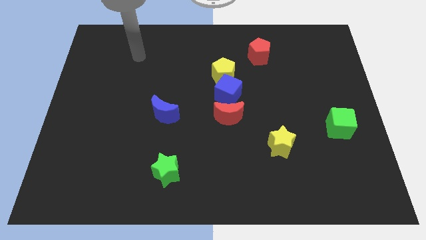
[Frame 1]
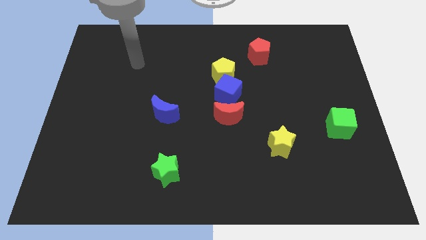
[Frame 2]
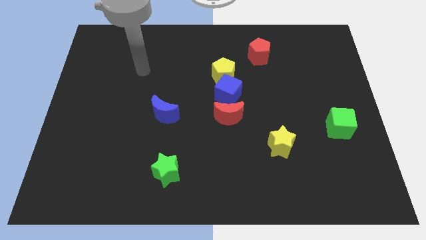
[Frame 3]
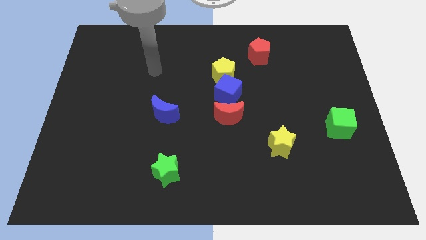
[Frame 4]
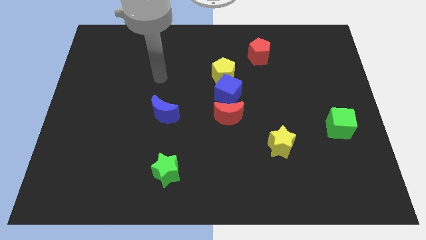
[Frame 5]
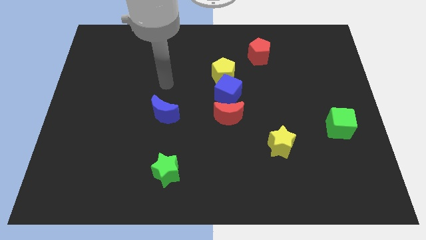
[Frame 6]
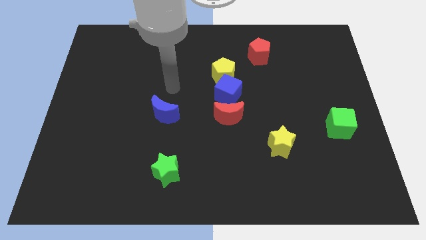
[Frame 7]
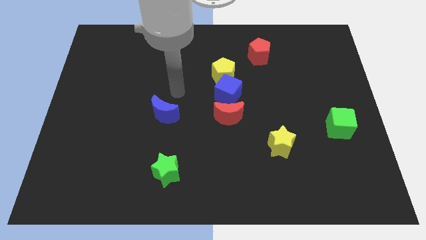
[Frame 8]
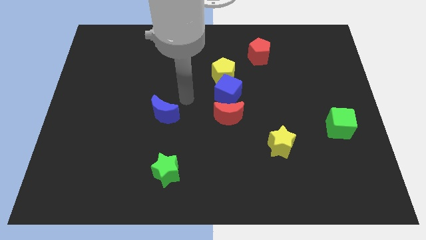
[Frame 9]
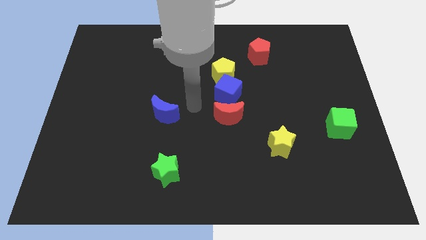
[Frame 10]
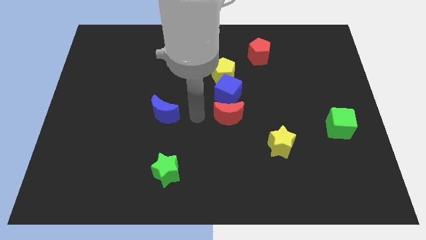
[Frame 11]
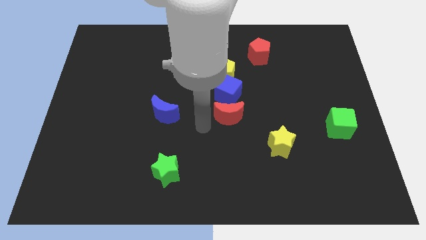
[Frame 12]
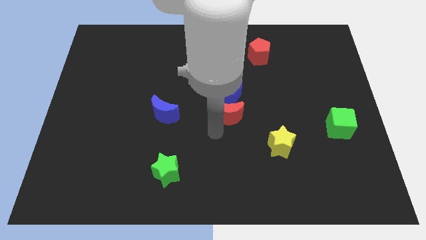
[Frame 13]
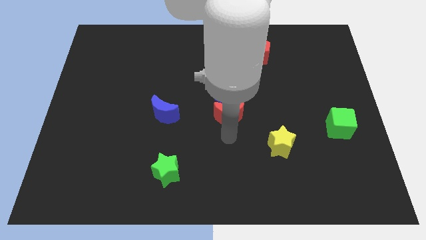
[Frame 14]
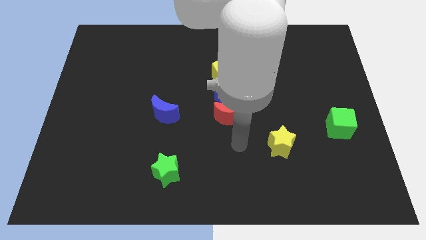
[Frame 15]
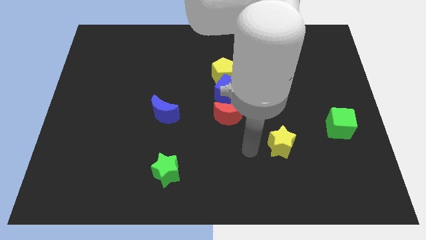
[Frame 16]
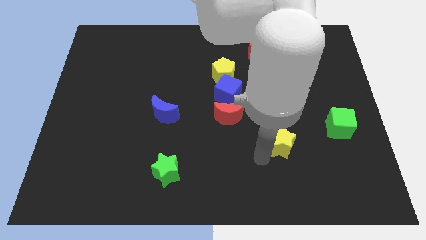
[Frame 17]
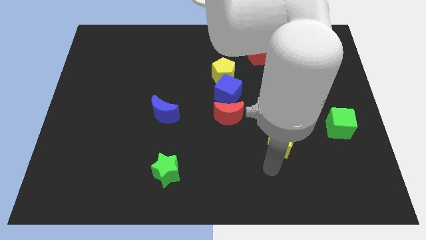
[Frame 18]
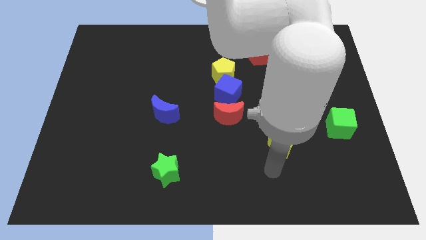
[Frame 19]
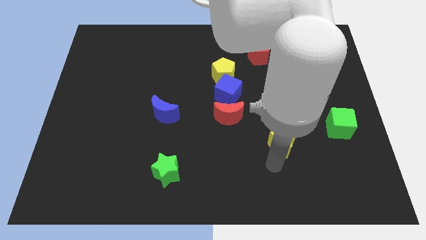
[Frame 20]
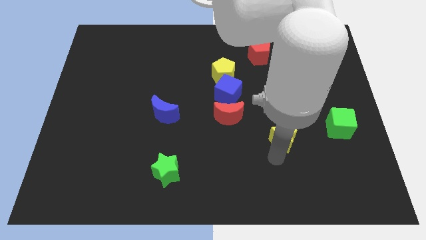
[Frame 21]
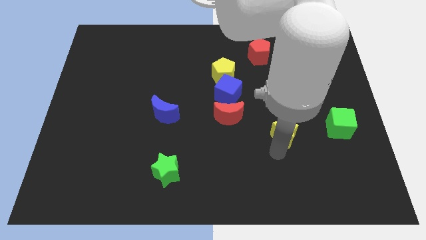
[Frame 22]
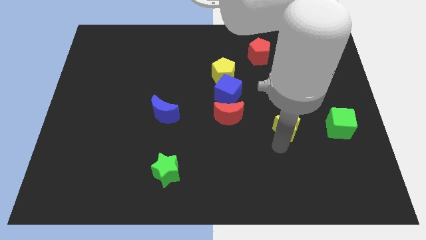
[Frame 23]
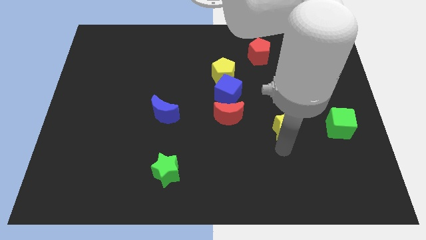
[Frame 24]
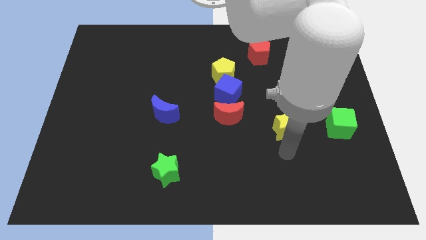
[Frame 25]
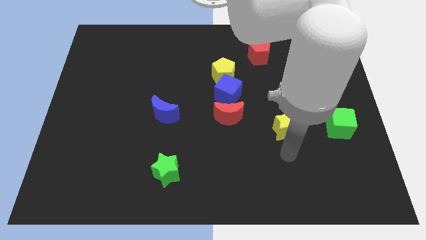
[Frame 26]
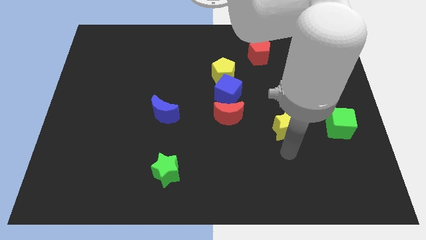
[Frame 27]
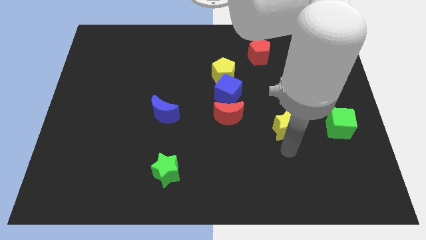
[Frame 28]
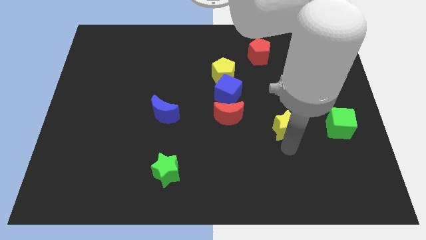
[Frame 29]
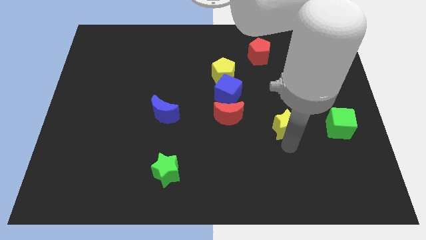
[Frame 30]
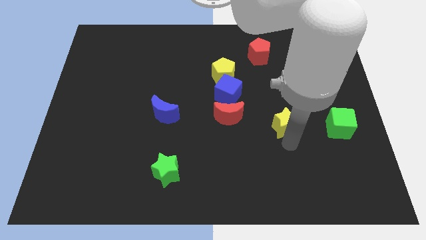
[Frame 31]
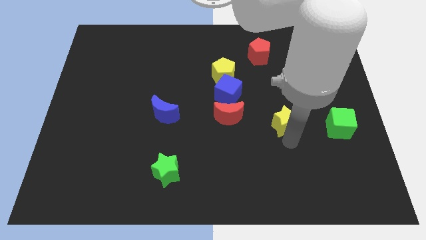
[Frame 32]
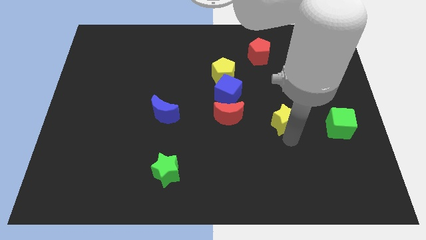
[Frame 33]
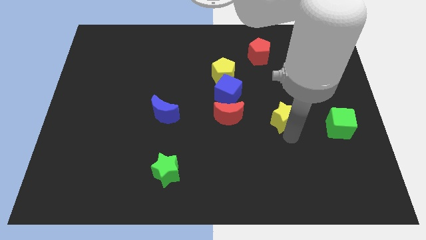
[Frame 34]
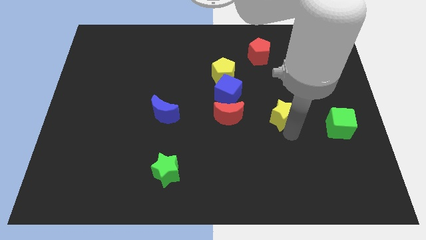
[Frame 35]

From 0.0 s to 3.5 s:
push the yellow star slightly up

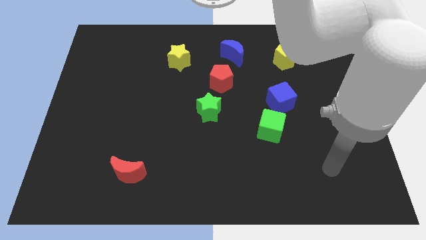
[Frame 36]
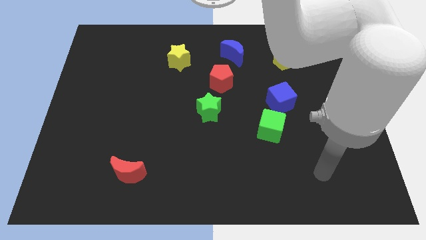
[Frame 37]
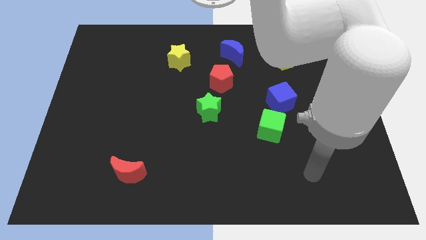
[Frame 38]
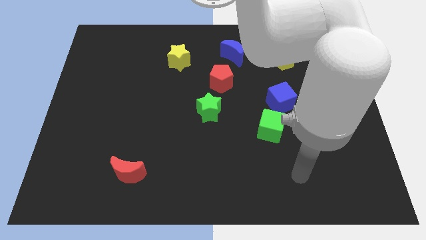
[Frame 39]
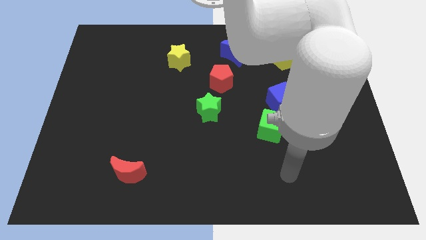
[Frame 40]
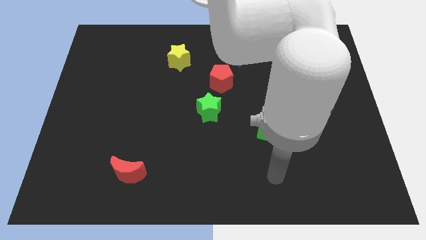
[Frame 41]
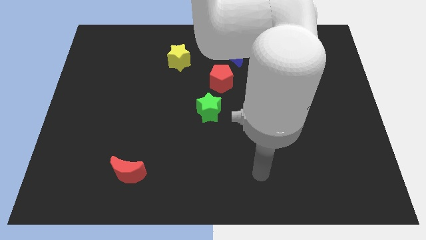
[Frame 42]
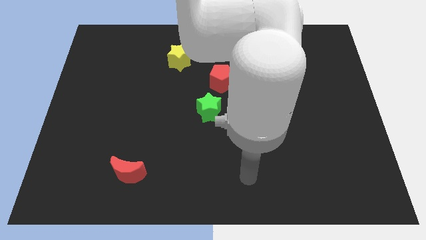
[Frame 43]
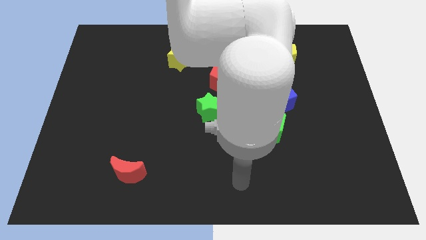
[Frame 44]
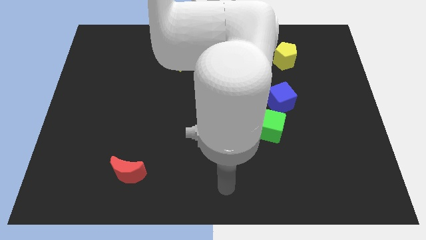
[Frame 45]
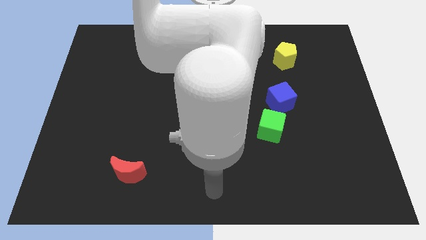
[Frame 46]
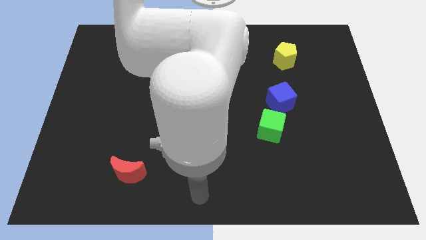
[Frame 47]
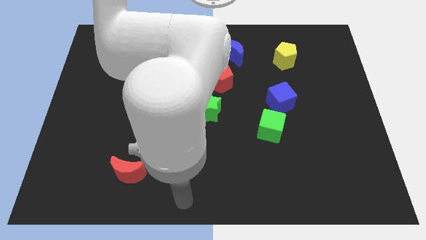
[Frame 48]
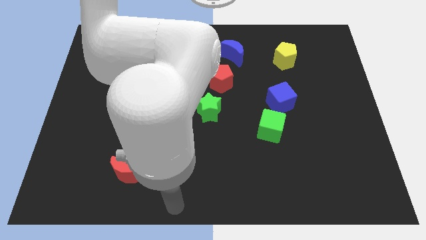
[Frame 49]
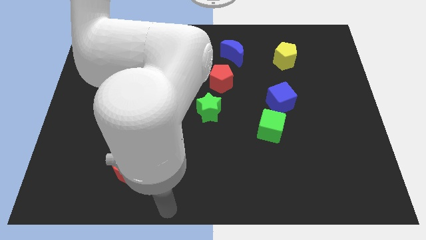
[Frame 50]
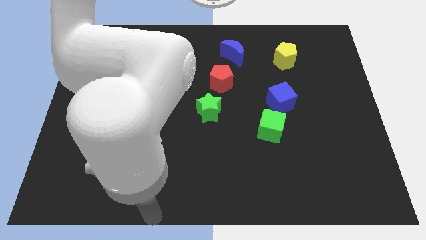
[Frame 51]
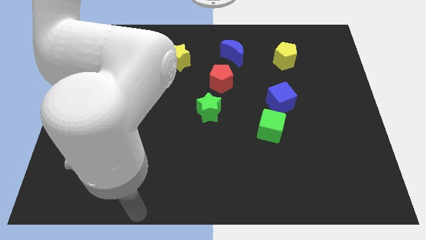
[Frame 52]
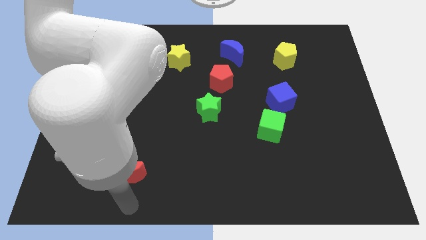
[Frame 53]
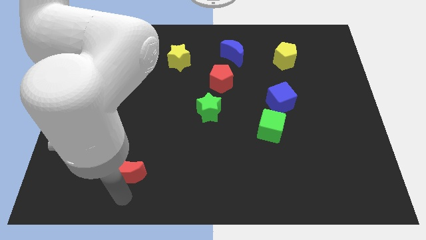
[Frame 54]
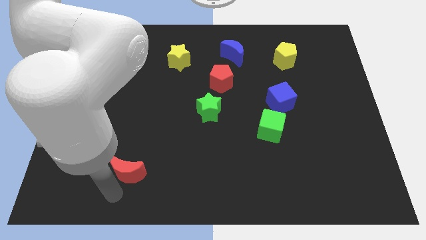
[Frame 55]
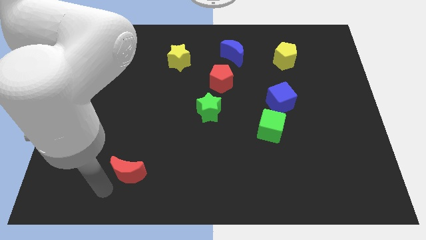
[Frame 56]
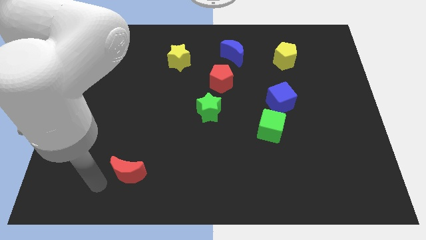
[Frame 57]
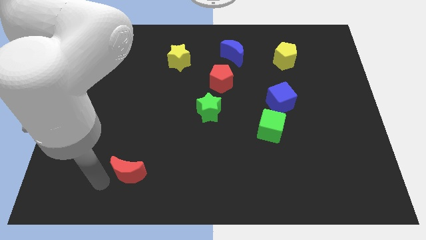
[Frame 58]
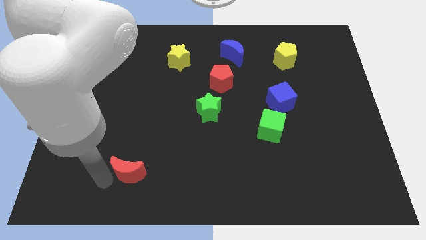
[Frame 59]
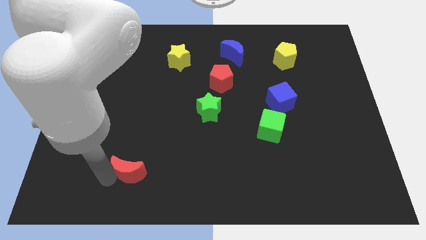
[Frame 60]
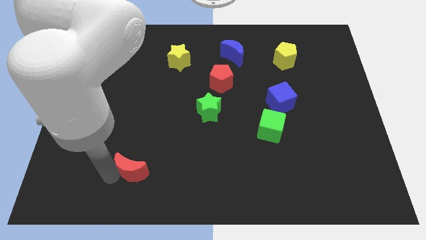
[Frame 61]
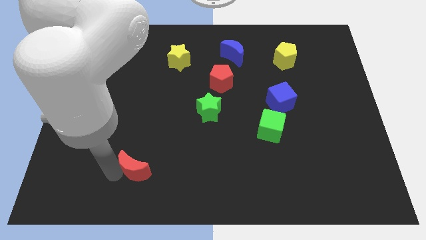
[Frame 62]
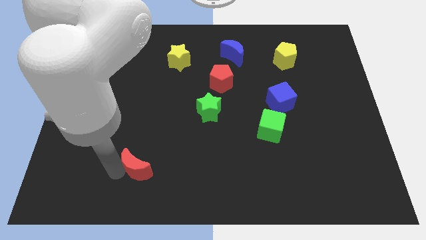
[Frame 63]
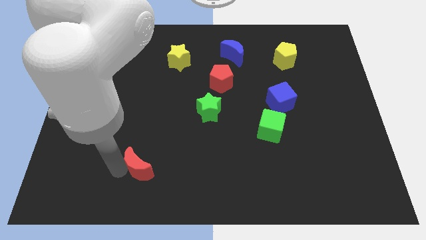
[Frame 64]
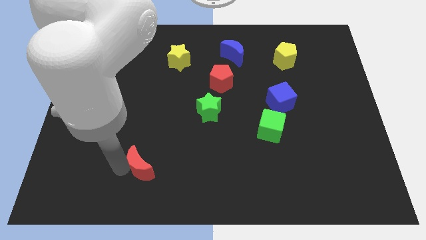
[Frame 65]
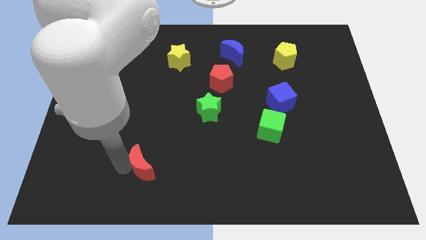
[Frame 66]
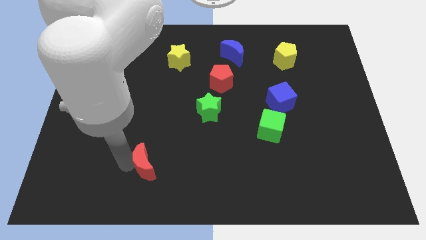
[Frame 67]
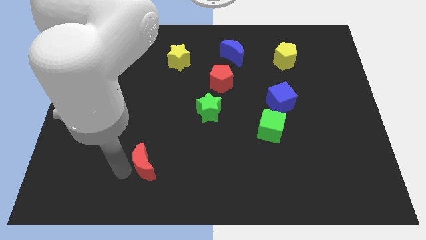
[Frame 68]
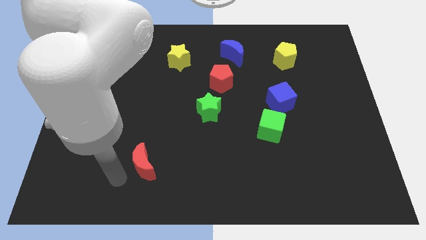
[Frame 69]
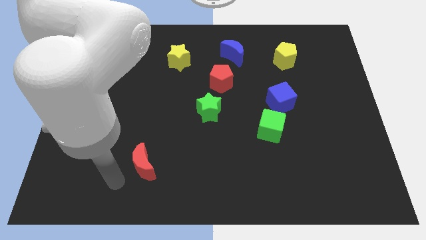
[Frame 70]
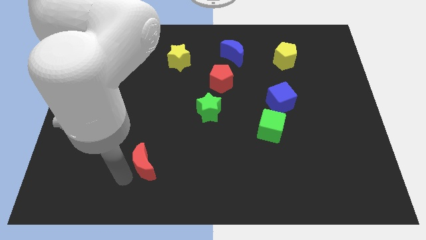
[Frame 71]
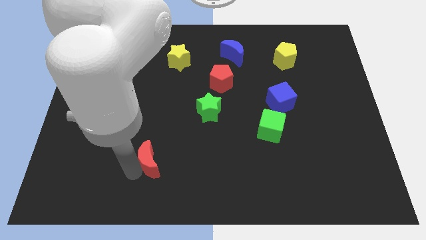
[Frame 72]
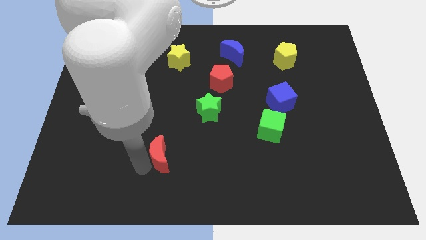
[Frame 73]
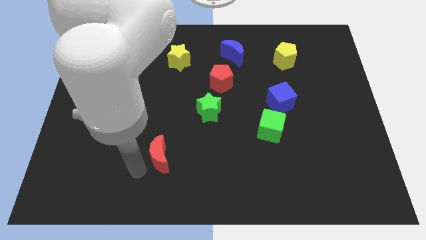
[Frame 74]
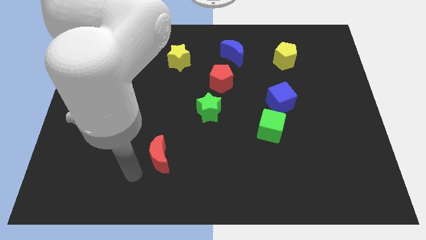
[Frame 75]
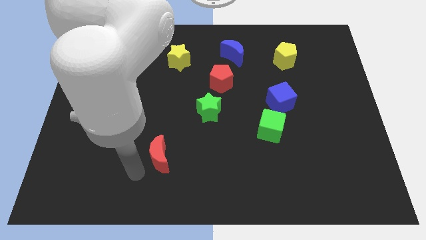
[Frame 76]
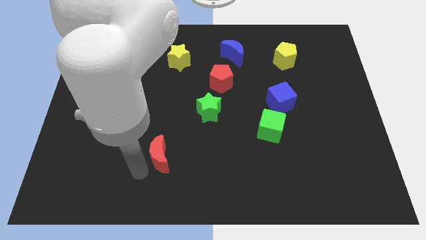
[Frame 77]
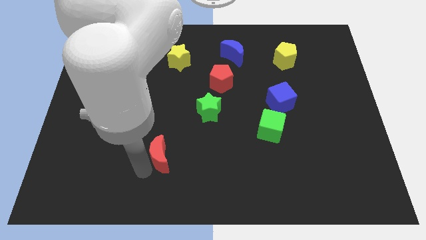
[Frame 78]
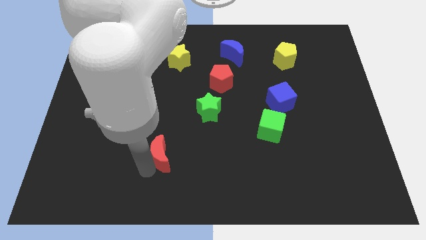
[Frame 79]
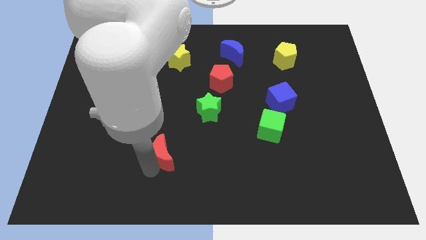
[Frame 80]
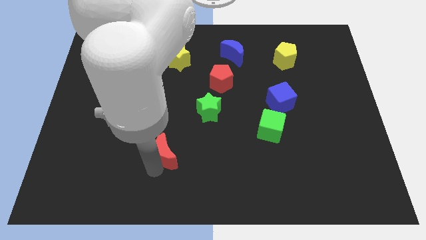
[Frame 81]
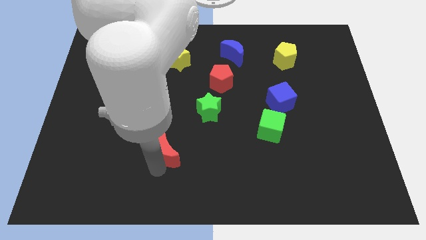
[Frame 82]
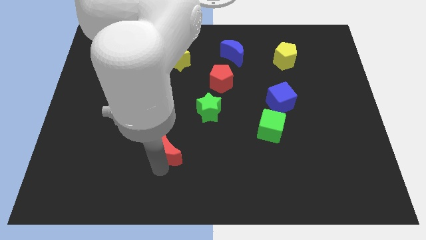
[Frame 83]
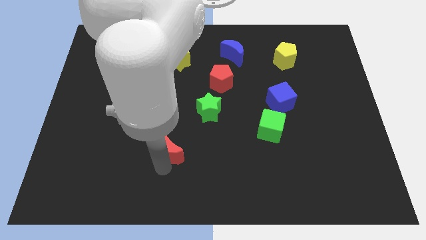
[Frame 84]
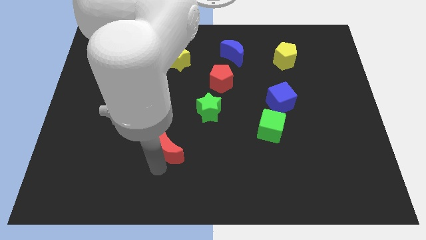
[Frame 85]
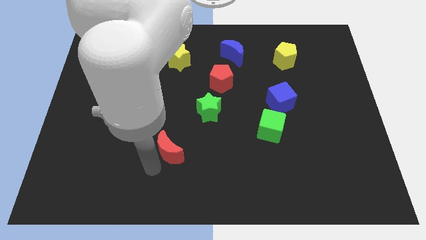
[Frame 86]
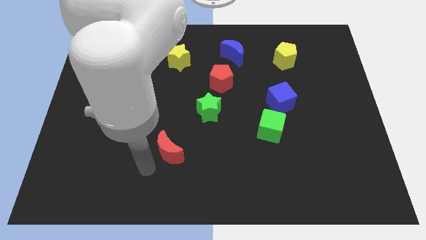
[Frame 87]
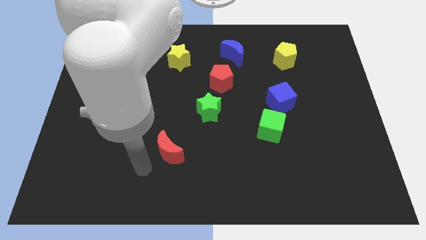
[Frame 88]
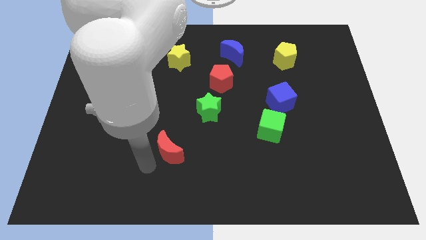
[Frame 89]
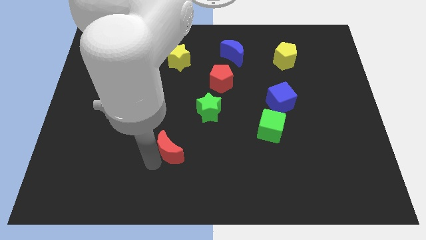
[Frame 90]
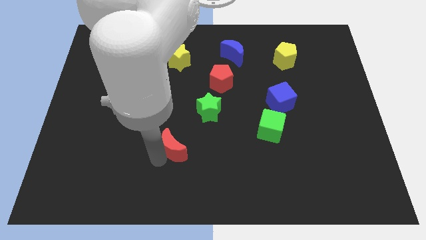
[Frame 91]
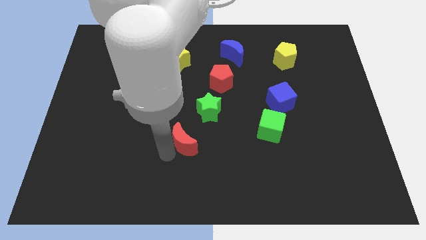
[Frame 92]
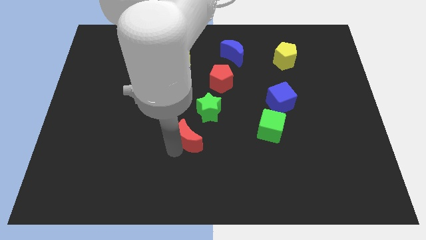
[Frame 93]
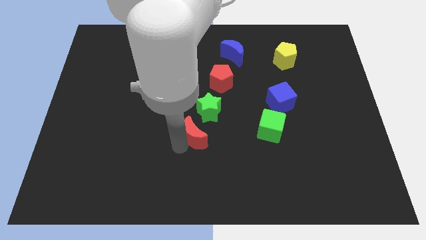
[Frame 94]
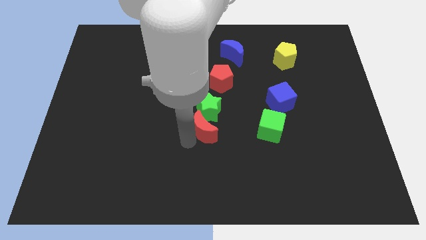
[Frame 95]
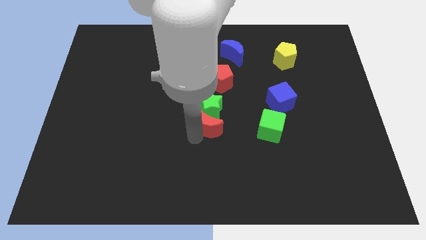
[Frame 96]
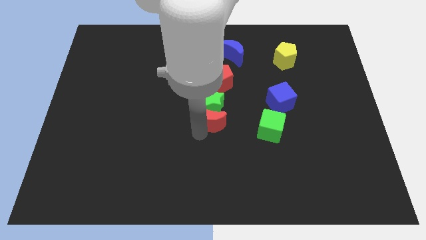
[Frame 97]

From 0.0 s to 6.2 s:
slide the red moon up and to the right
